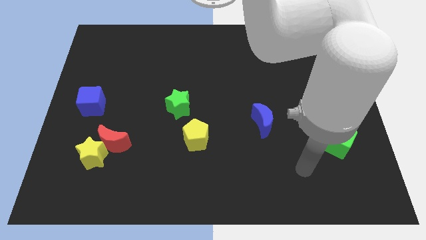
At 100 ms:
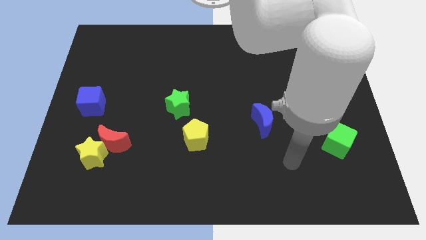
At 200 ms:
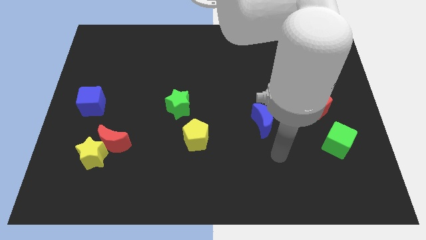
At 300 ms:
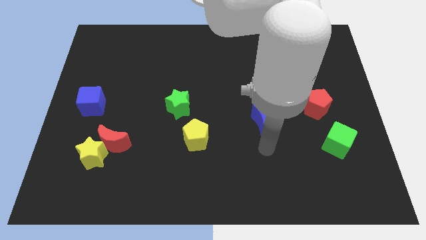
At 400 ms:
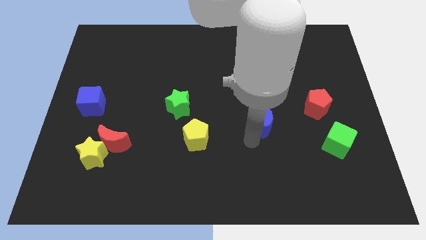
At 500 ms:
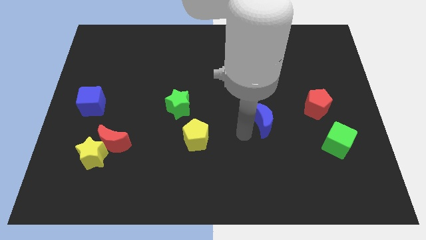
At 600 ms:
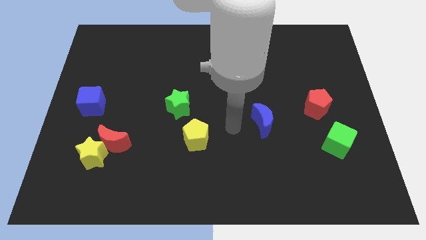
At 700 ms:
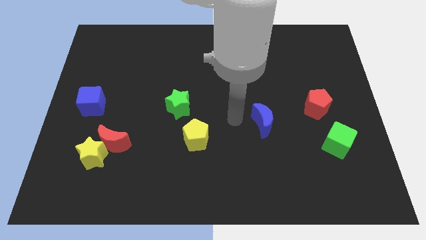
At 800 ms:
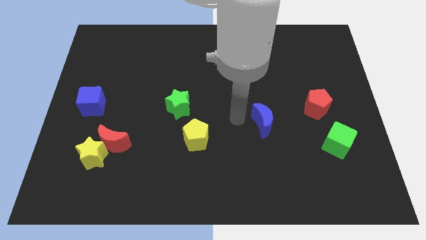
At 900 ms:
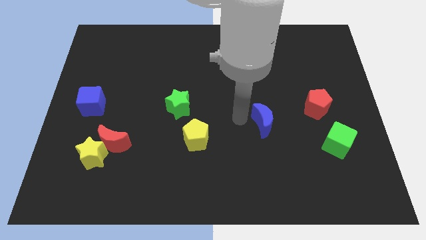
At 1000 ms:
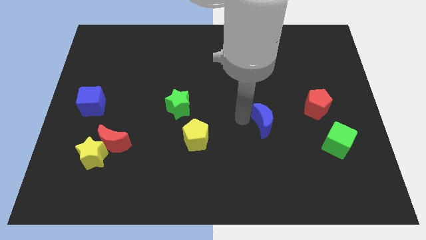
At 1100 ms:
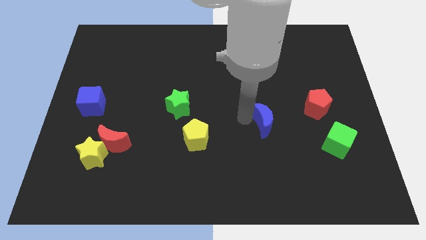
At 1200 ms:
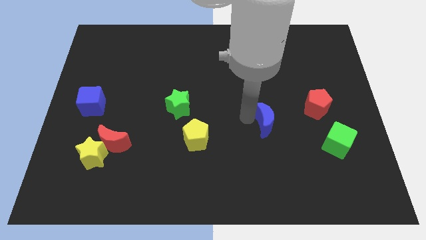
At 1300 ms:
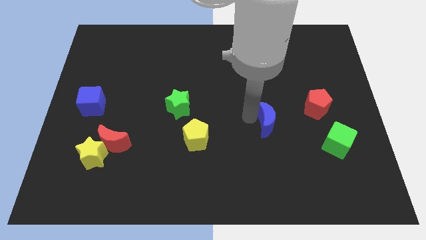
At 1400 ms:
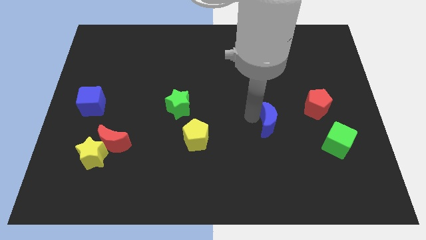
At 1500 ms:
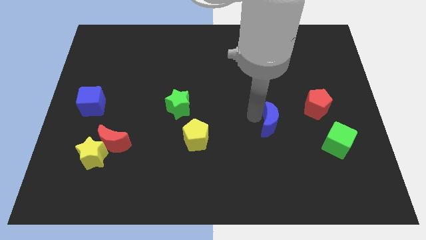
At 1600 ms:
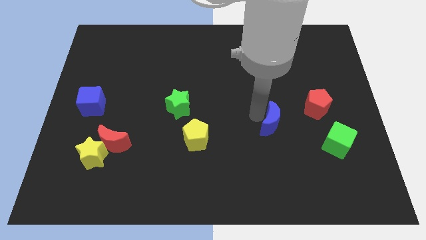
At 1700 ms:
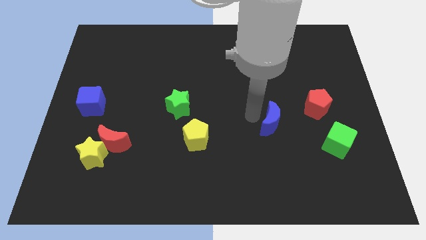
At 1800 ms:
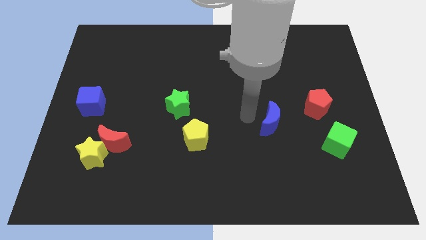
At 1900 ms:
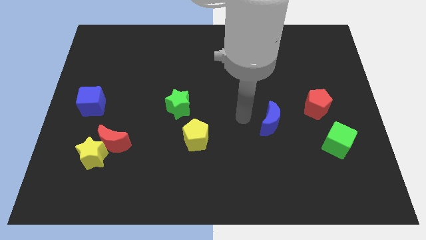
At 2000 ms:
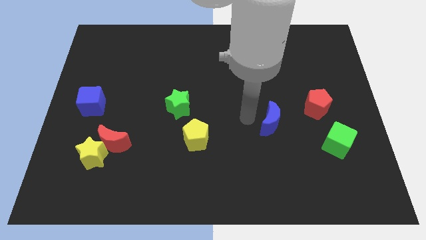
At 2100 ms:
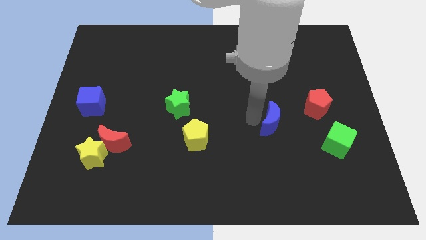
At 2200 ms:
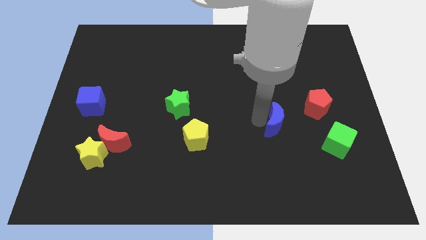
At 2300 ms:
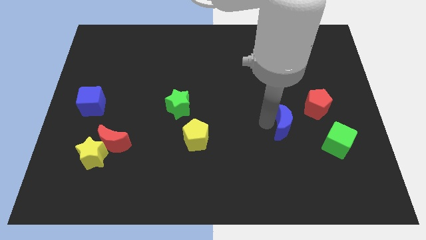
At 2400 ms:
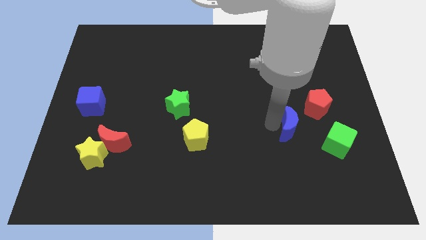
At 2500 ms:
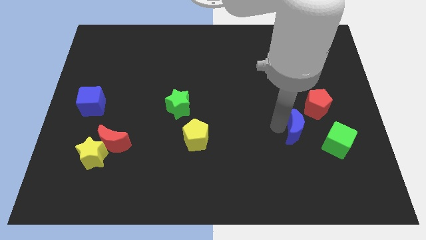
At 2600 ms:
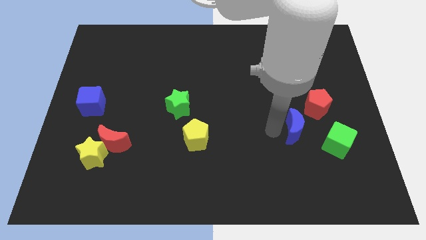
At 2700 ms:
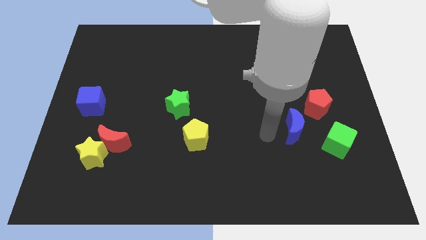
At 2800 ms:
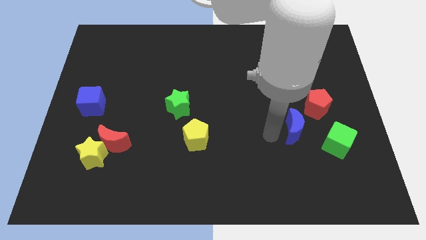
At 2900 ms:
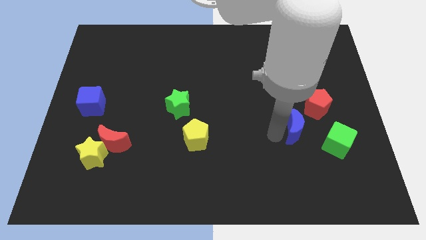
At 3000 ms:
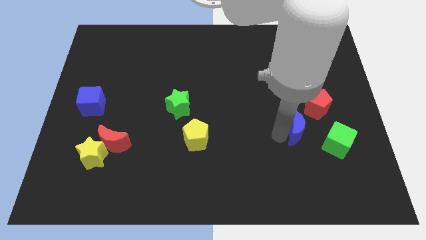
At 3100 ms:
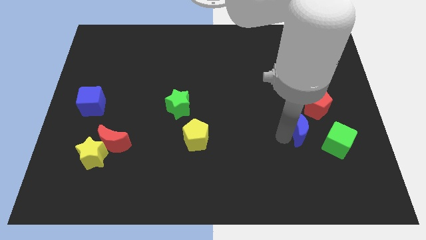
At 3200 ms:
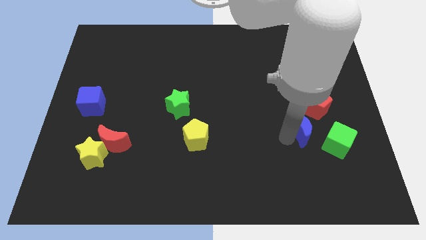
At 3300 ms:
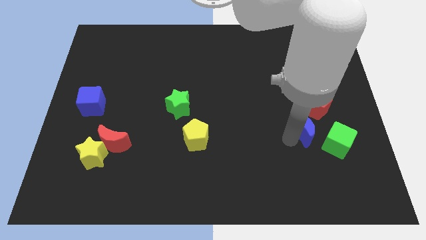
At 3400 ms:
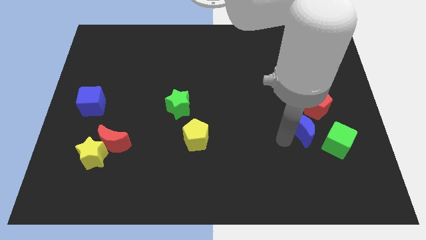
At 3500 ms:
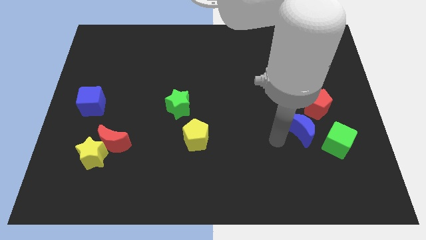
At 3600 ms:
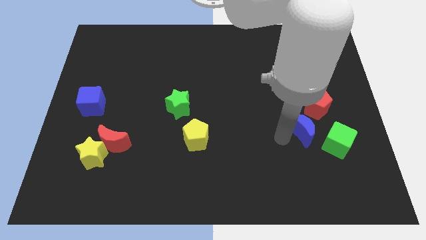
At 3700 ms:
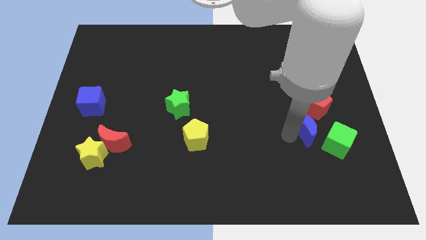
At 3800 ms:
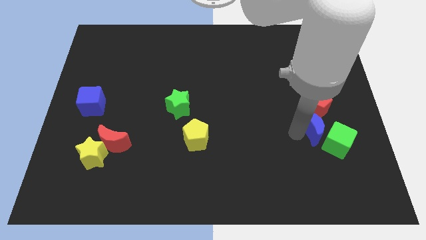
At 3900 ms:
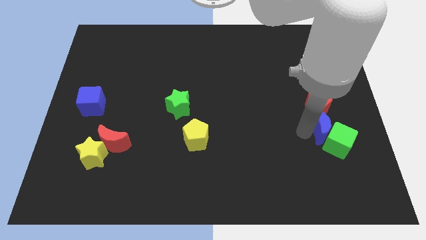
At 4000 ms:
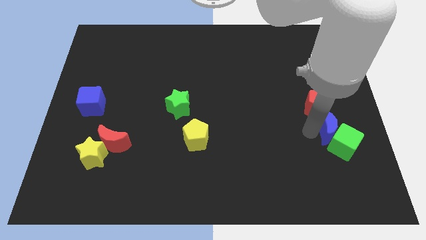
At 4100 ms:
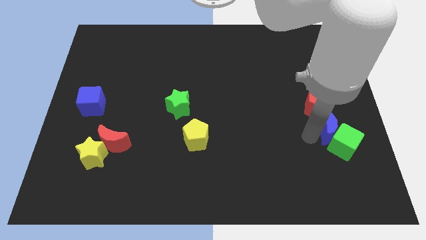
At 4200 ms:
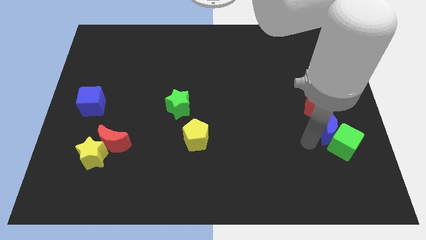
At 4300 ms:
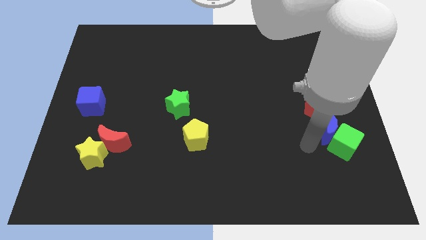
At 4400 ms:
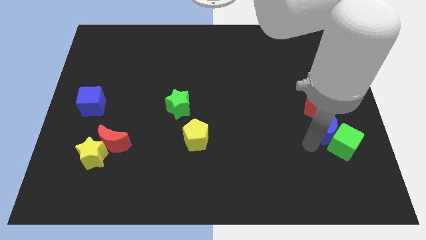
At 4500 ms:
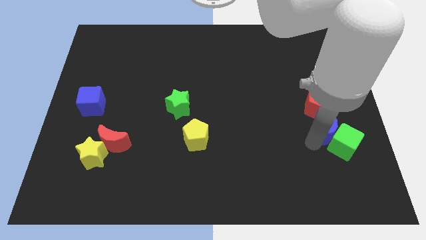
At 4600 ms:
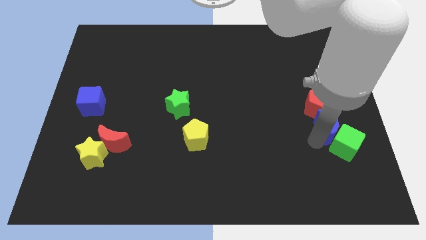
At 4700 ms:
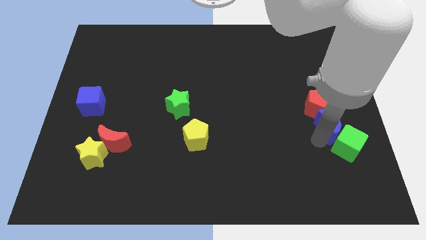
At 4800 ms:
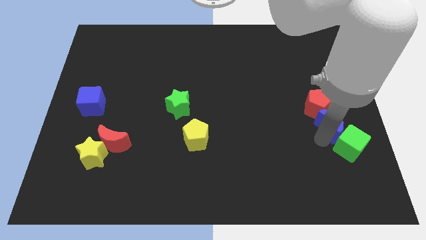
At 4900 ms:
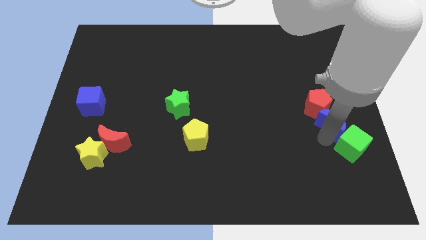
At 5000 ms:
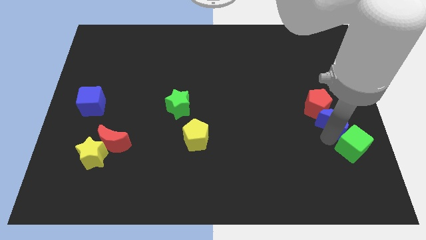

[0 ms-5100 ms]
push the blue moon to the right side of the board
